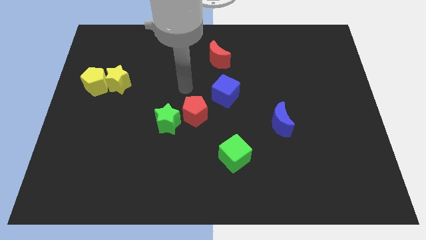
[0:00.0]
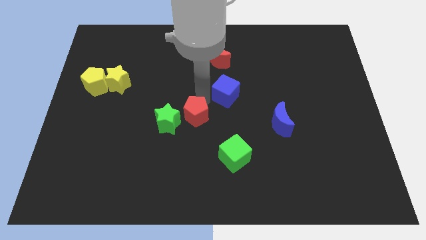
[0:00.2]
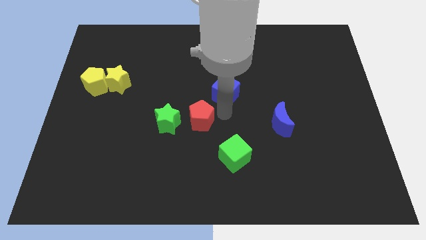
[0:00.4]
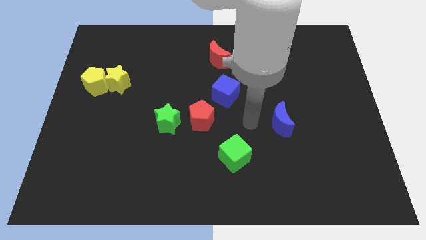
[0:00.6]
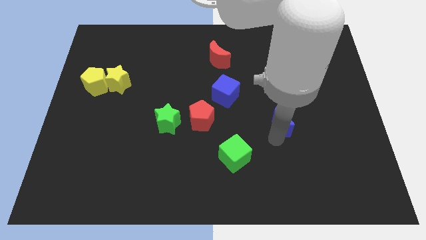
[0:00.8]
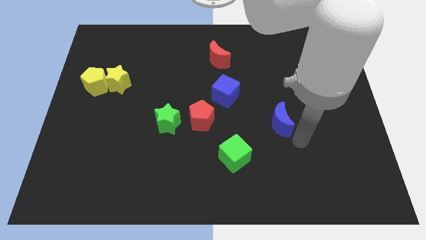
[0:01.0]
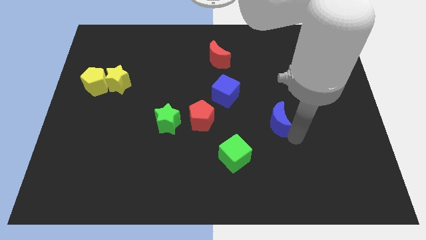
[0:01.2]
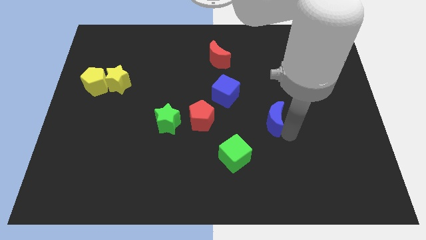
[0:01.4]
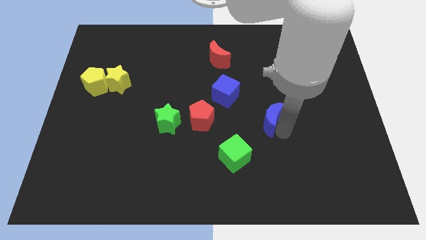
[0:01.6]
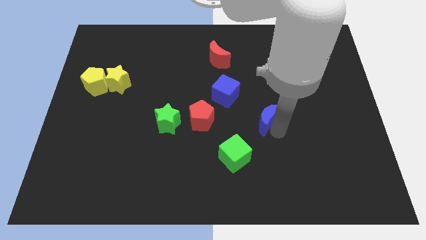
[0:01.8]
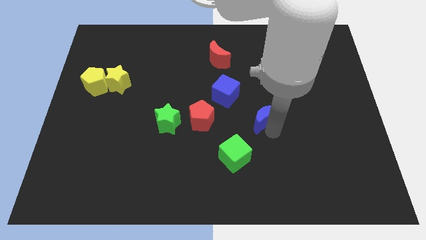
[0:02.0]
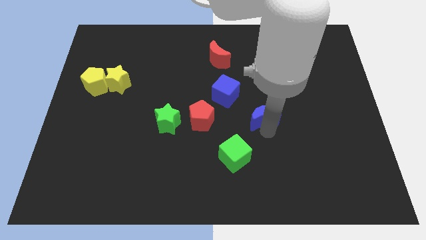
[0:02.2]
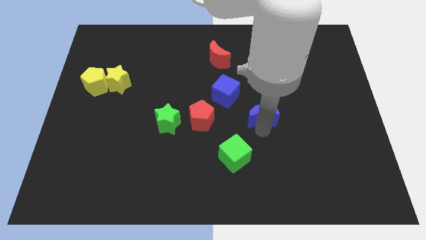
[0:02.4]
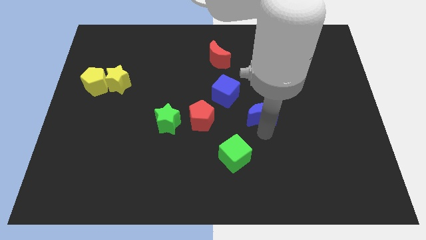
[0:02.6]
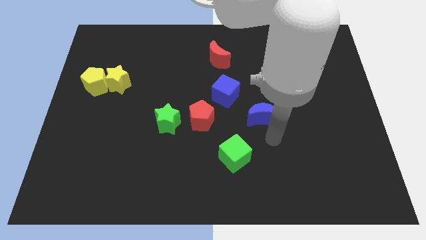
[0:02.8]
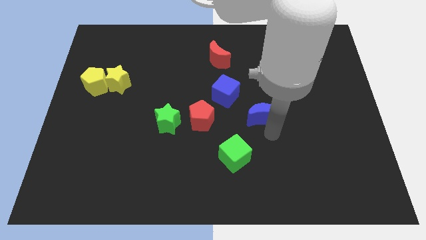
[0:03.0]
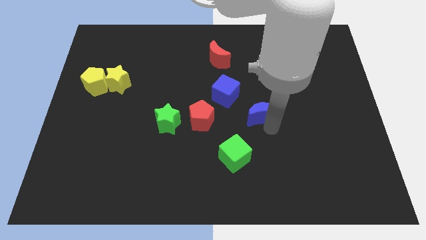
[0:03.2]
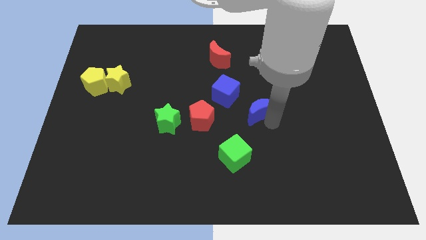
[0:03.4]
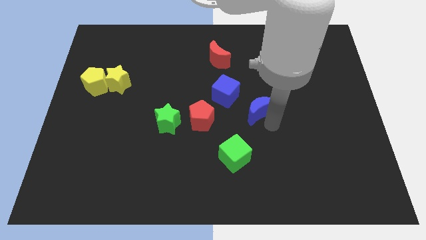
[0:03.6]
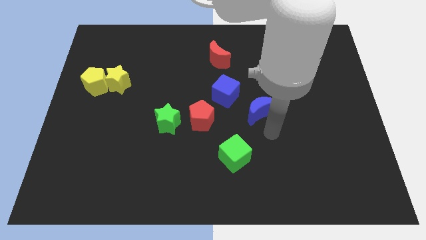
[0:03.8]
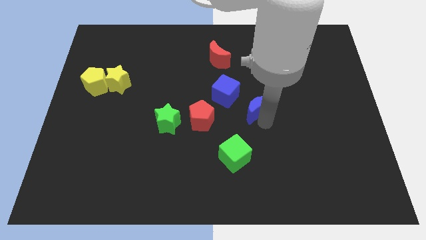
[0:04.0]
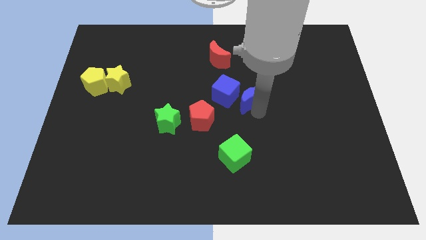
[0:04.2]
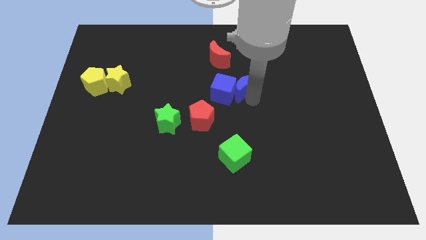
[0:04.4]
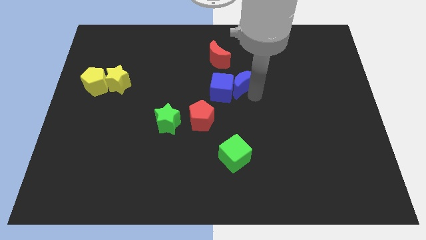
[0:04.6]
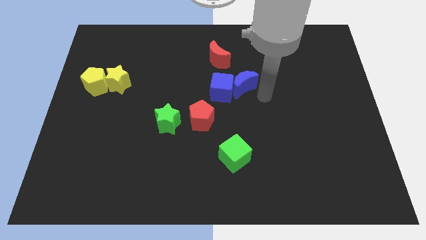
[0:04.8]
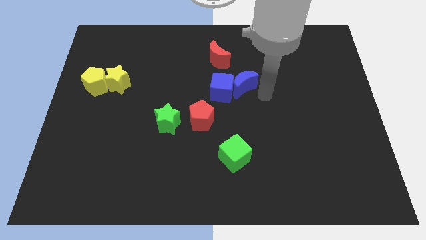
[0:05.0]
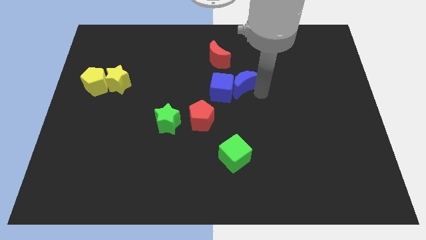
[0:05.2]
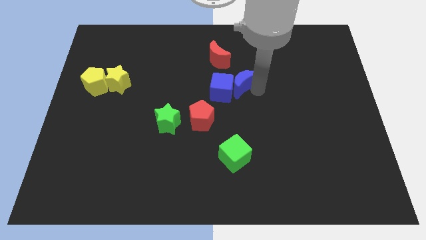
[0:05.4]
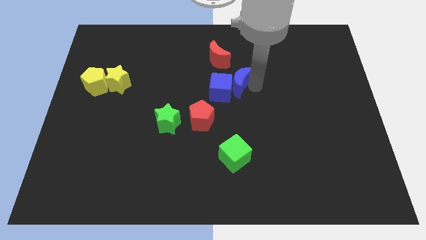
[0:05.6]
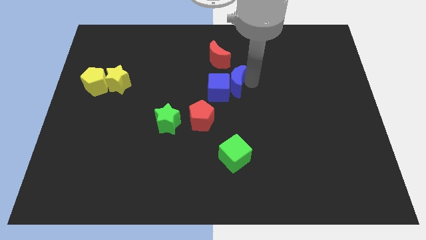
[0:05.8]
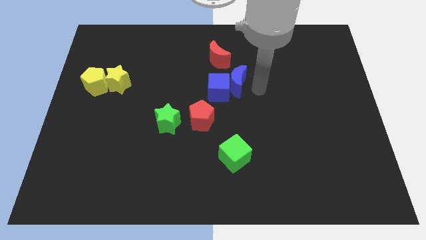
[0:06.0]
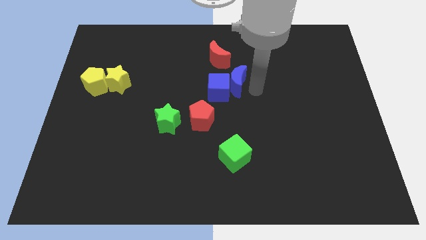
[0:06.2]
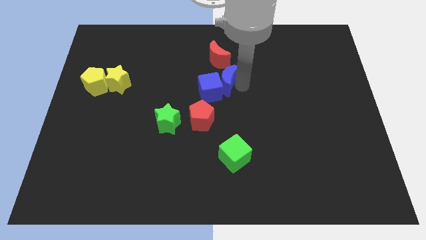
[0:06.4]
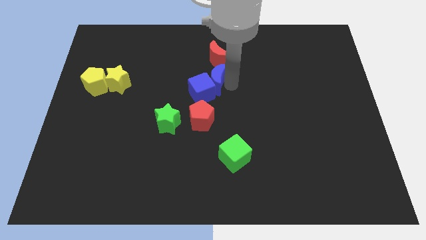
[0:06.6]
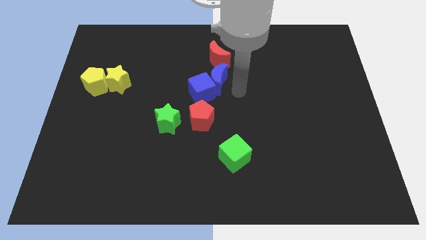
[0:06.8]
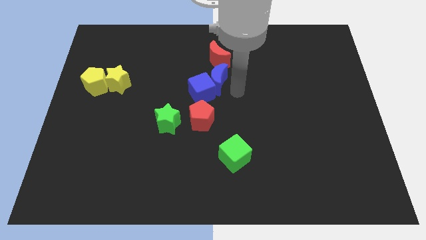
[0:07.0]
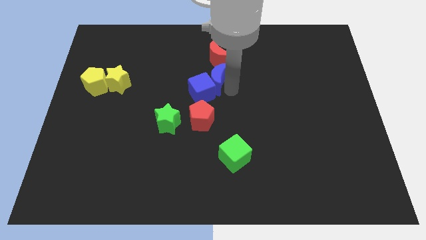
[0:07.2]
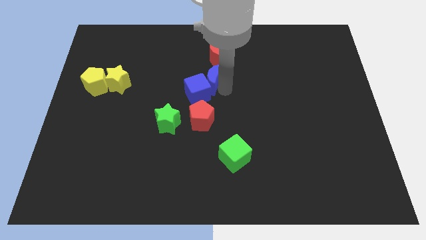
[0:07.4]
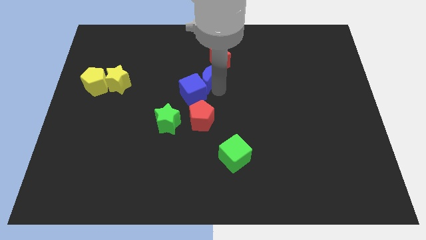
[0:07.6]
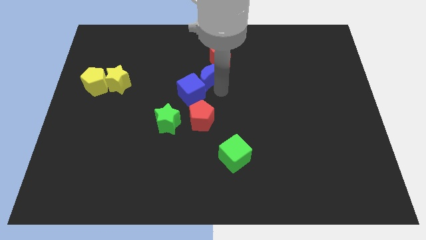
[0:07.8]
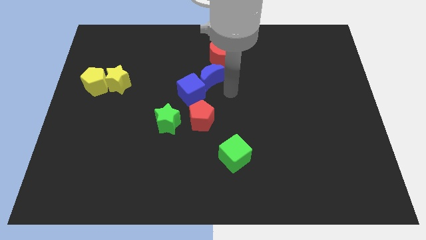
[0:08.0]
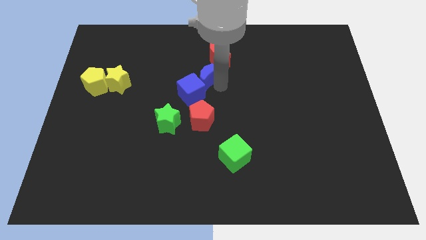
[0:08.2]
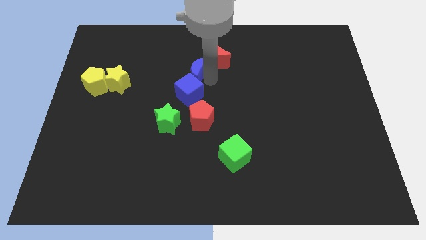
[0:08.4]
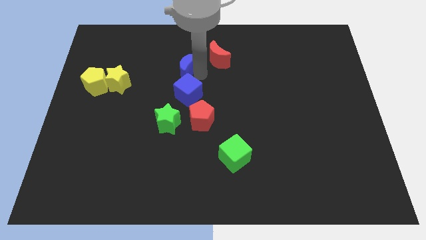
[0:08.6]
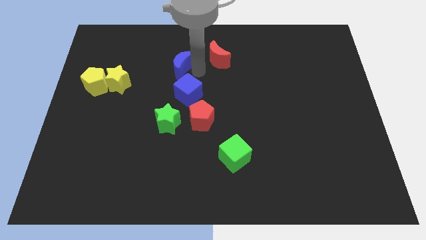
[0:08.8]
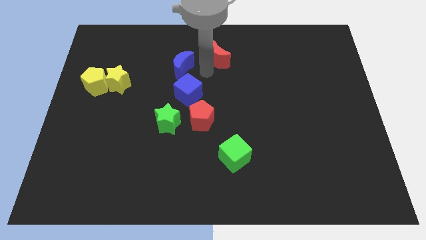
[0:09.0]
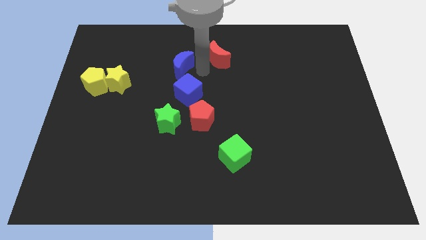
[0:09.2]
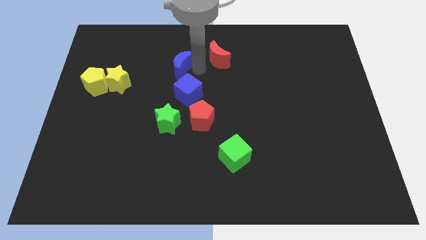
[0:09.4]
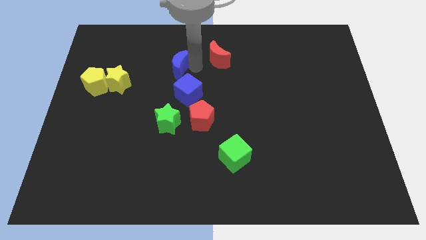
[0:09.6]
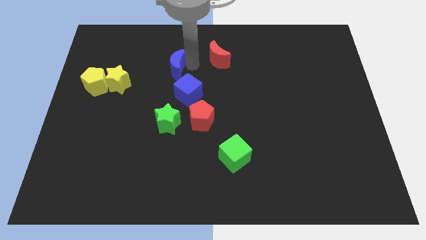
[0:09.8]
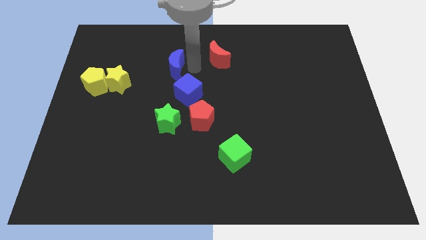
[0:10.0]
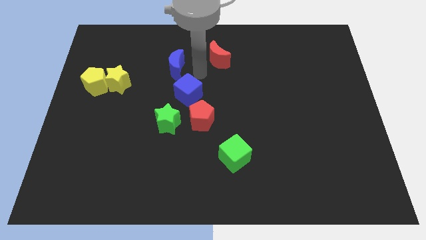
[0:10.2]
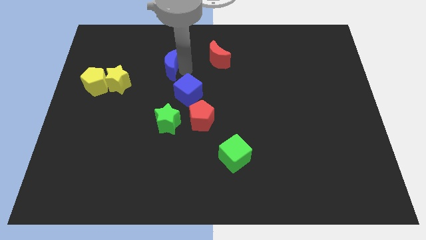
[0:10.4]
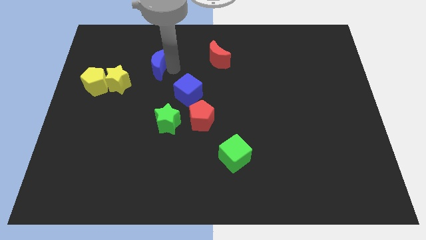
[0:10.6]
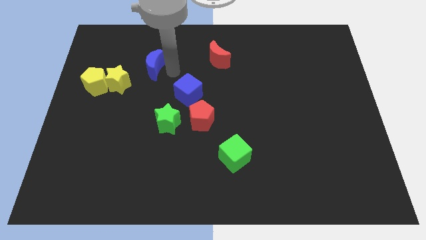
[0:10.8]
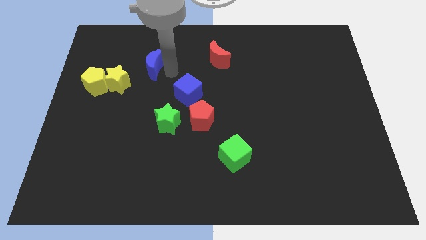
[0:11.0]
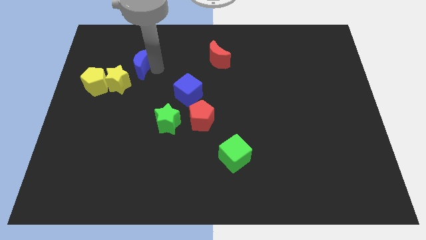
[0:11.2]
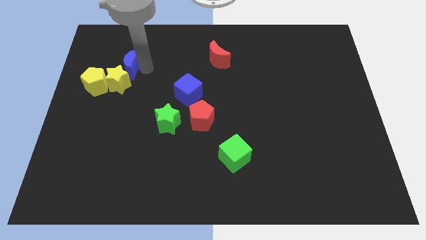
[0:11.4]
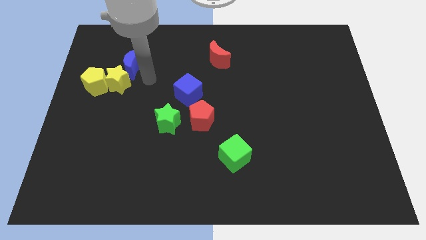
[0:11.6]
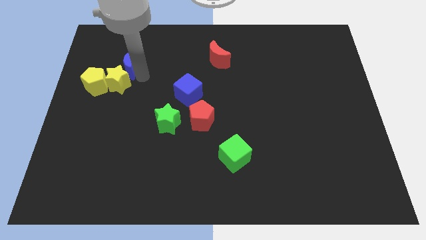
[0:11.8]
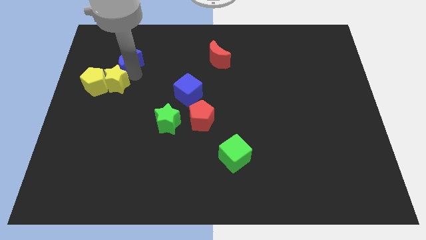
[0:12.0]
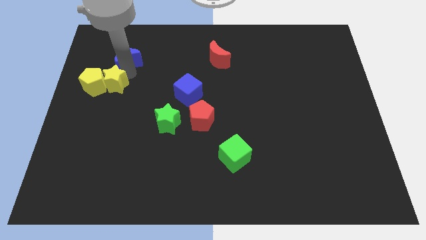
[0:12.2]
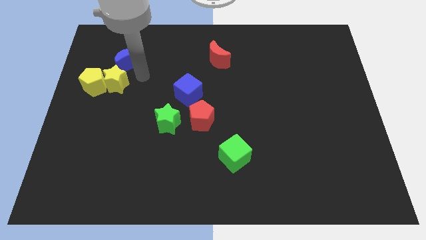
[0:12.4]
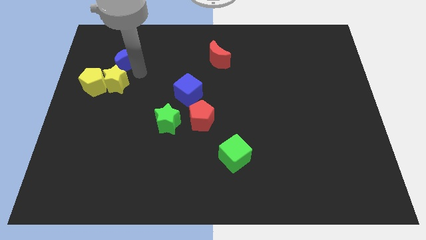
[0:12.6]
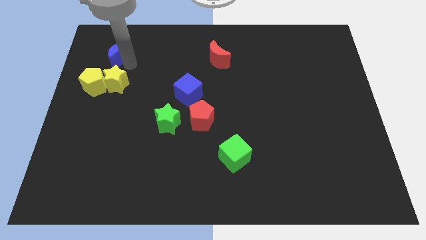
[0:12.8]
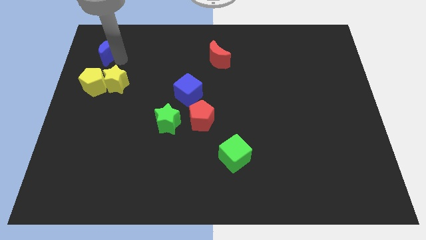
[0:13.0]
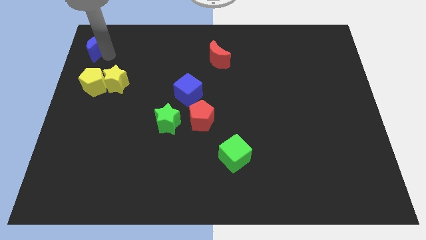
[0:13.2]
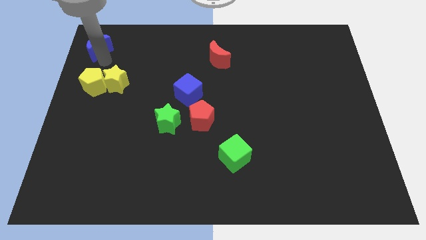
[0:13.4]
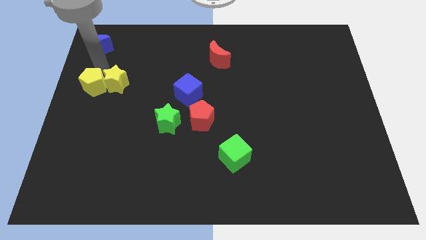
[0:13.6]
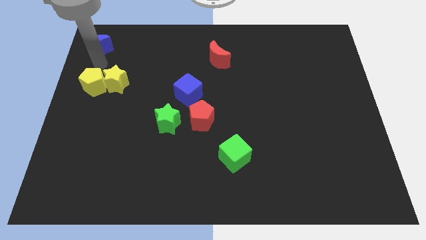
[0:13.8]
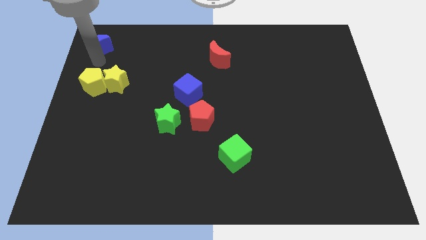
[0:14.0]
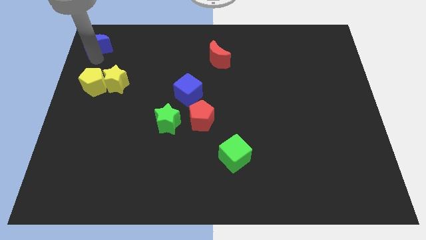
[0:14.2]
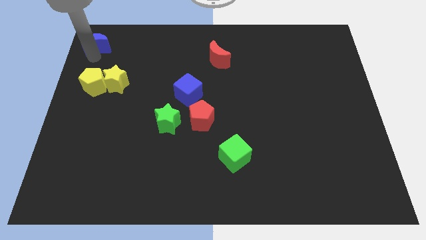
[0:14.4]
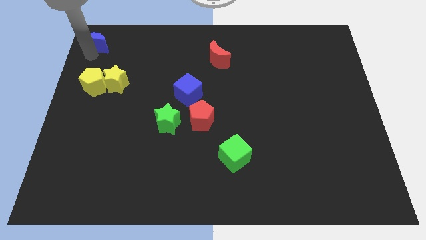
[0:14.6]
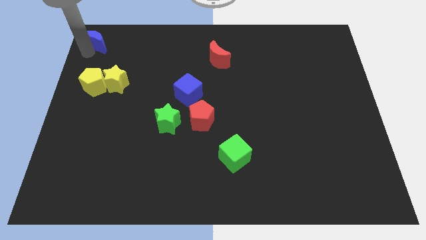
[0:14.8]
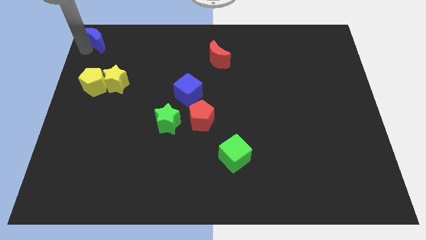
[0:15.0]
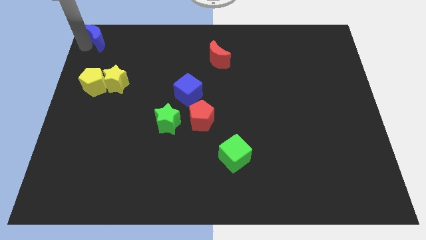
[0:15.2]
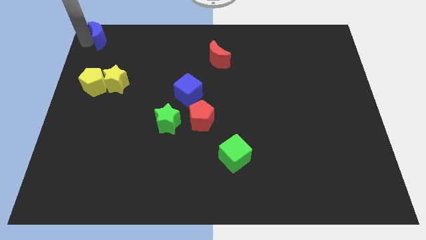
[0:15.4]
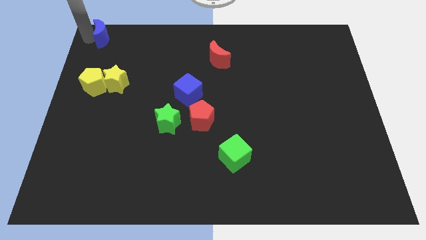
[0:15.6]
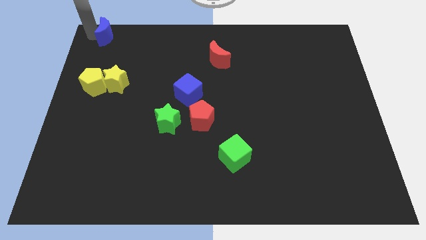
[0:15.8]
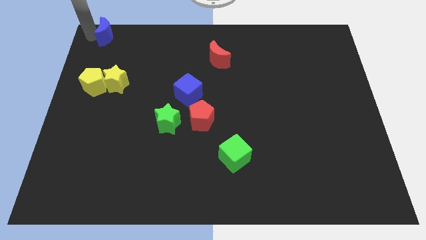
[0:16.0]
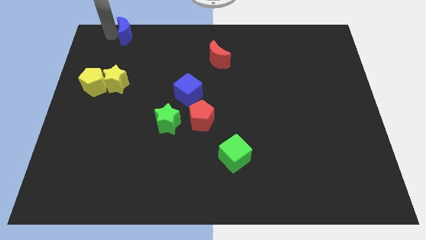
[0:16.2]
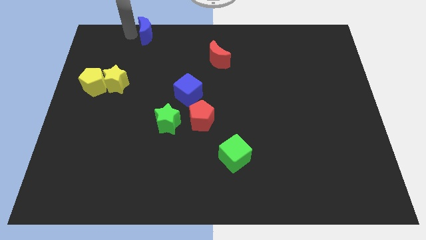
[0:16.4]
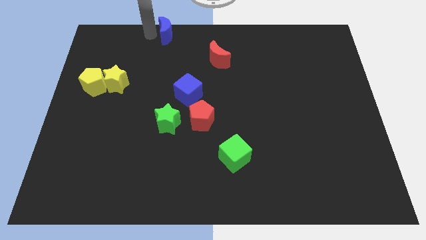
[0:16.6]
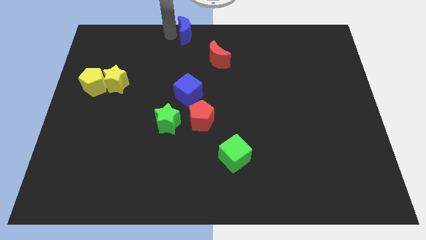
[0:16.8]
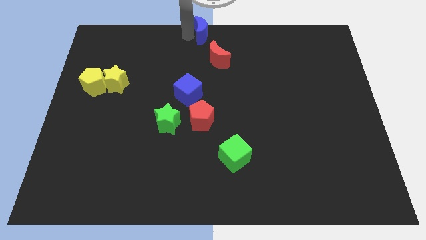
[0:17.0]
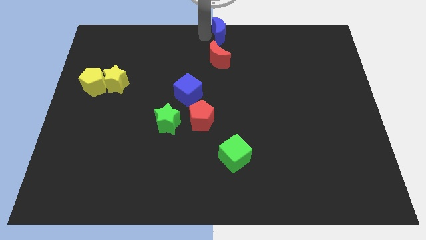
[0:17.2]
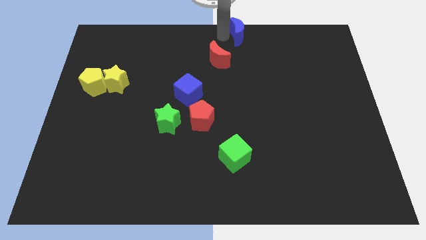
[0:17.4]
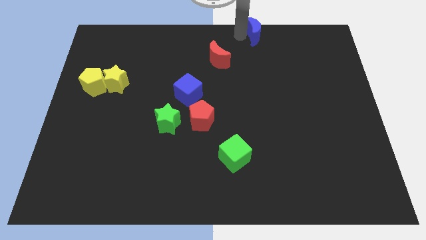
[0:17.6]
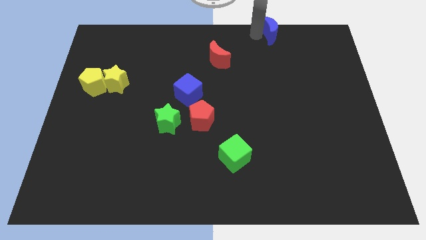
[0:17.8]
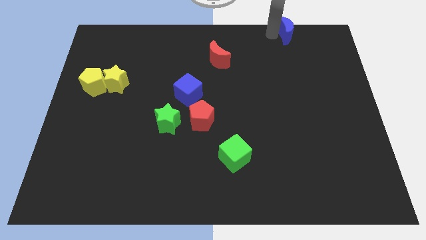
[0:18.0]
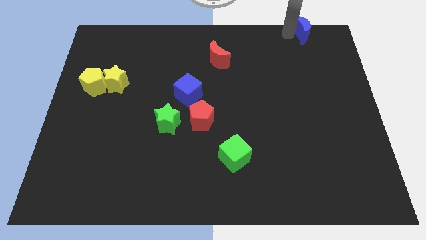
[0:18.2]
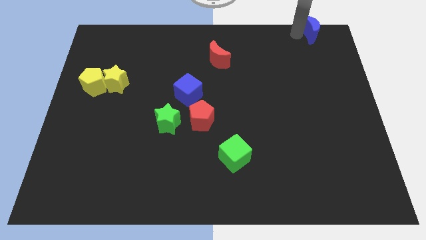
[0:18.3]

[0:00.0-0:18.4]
slide the blue moon to the top right corner
